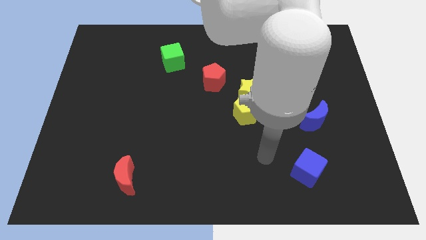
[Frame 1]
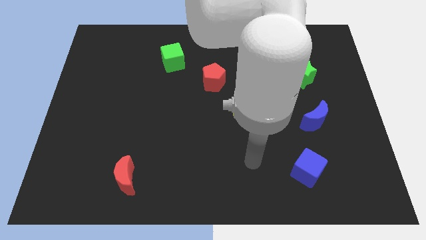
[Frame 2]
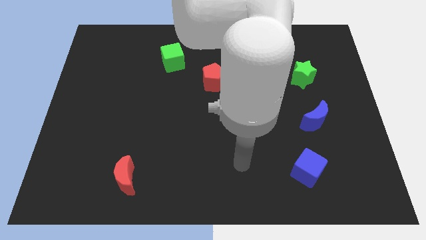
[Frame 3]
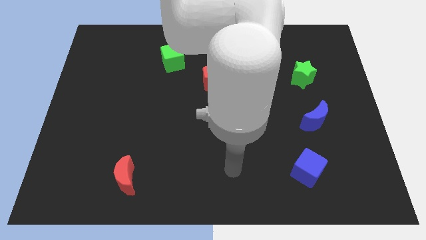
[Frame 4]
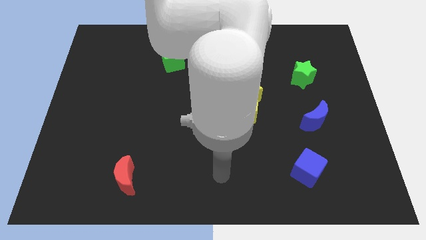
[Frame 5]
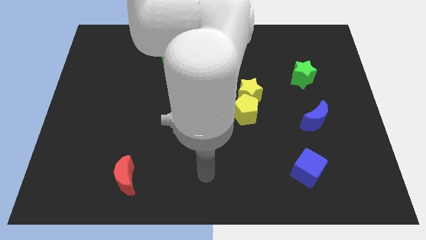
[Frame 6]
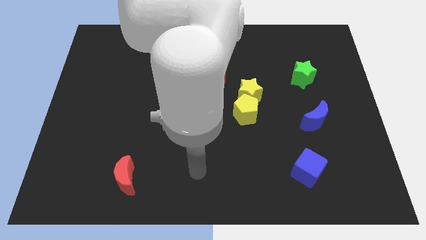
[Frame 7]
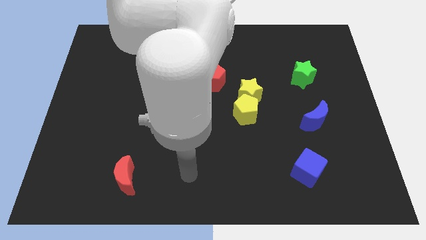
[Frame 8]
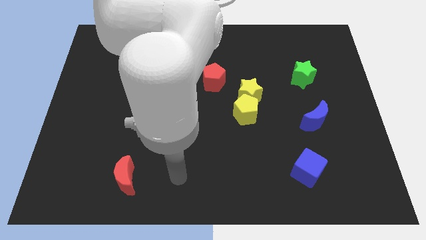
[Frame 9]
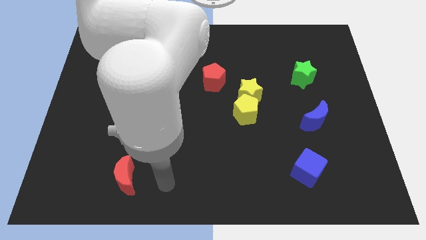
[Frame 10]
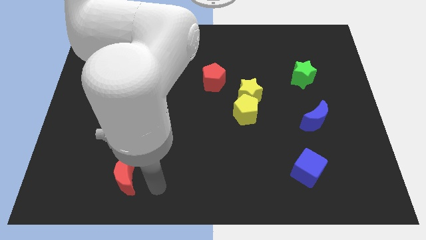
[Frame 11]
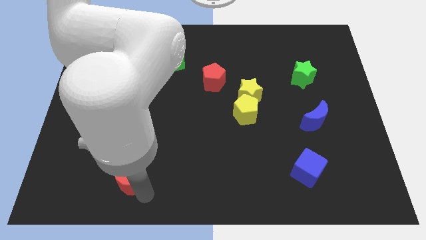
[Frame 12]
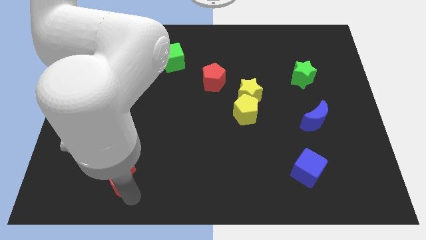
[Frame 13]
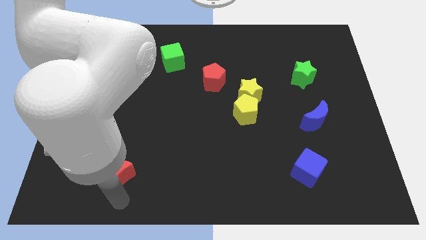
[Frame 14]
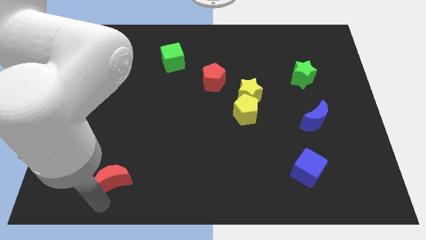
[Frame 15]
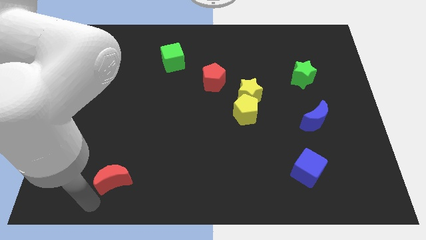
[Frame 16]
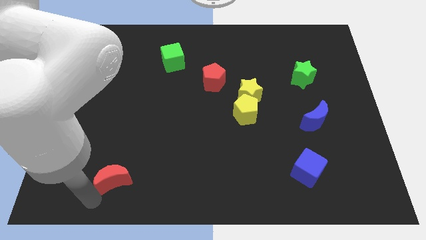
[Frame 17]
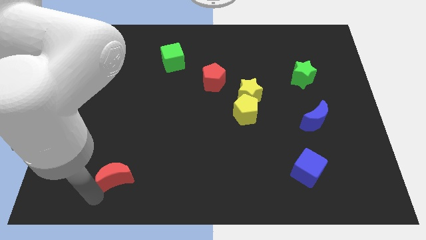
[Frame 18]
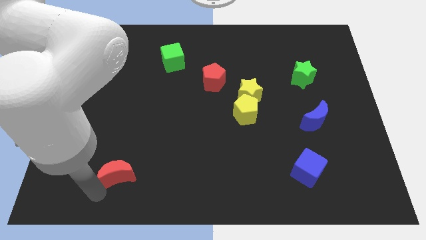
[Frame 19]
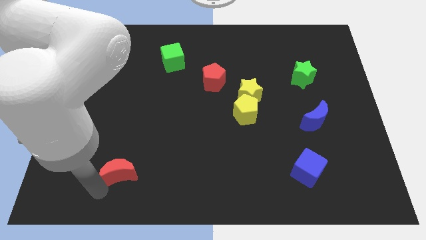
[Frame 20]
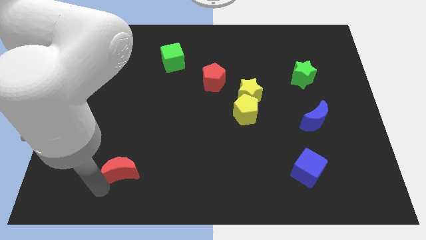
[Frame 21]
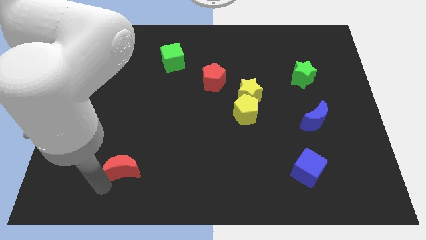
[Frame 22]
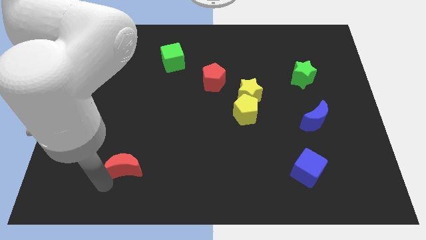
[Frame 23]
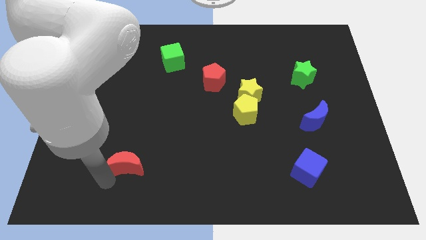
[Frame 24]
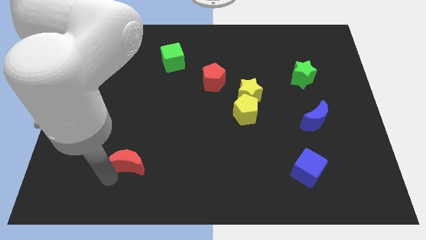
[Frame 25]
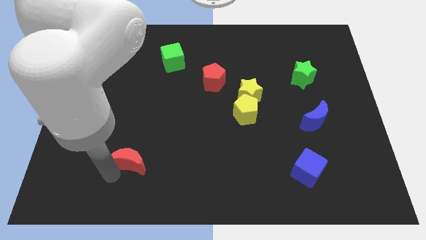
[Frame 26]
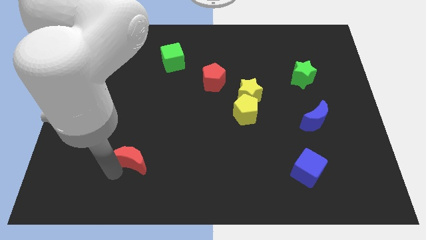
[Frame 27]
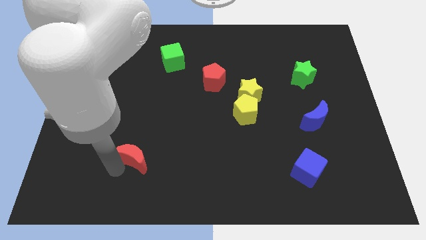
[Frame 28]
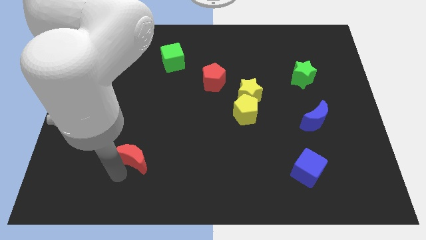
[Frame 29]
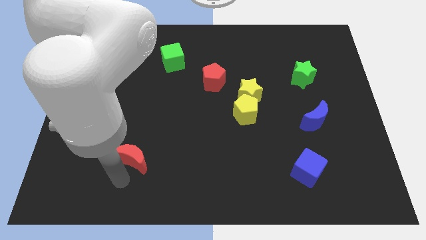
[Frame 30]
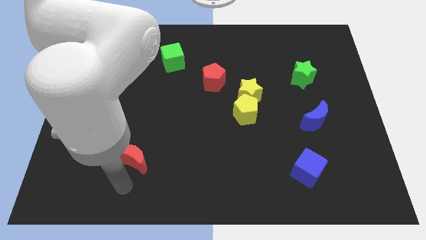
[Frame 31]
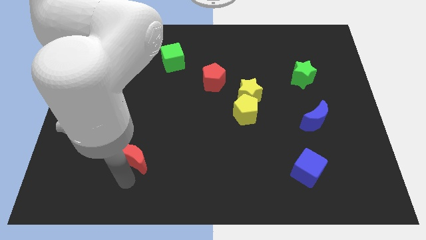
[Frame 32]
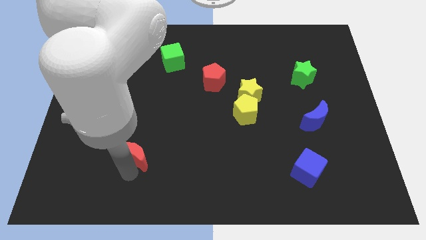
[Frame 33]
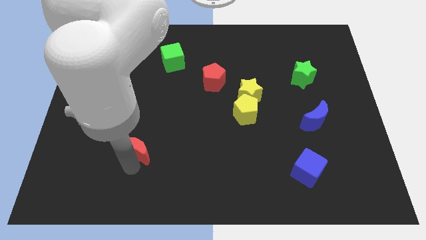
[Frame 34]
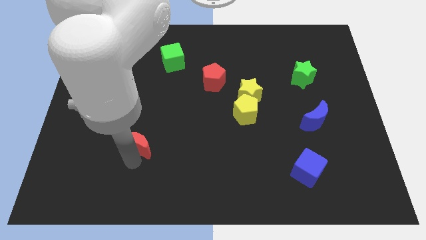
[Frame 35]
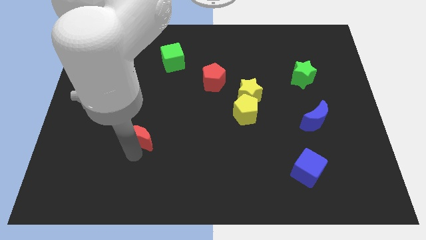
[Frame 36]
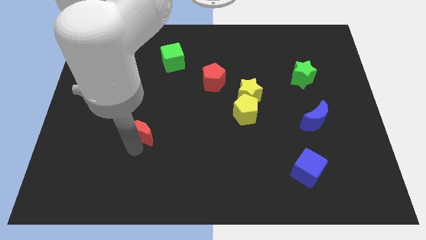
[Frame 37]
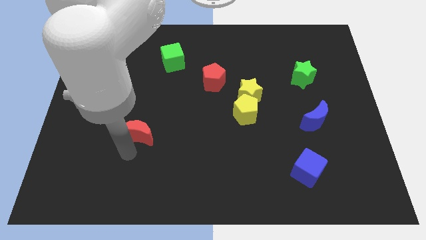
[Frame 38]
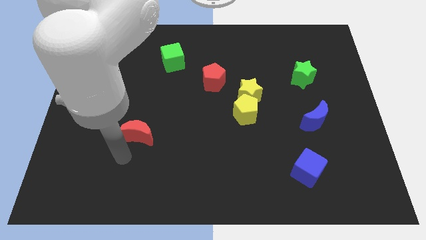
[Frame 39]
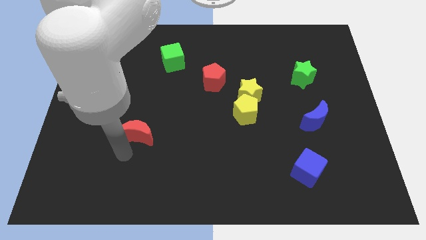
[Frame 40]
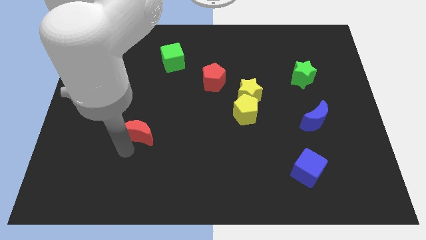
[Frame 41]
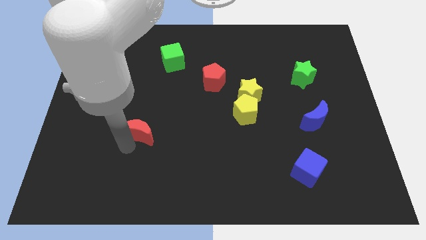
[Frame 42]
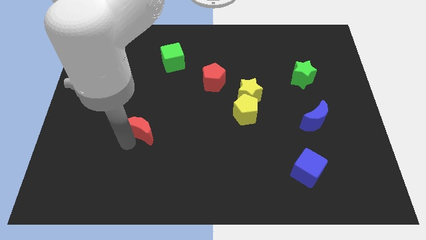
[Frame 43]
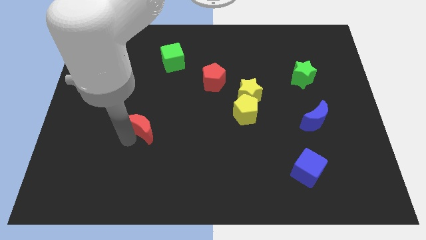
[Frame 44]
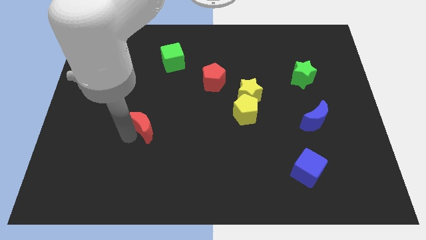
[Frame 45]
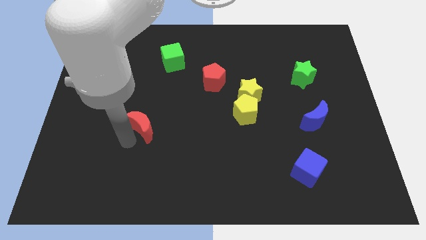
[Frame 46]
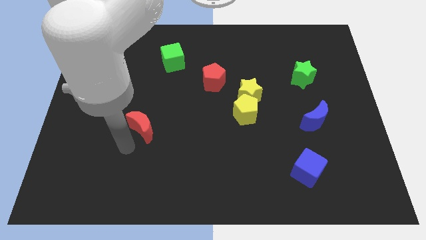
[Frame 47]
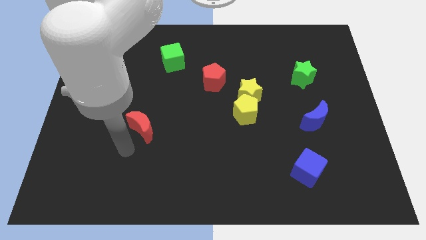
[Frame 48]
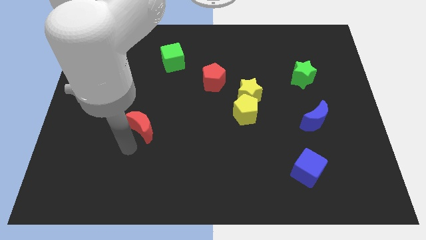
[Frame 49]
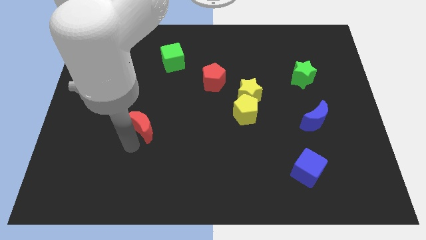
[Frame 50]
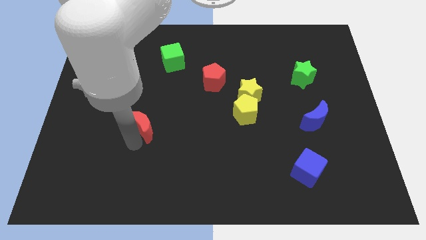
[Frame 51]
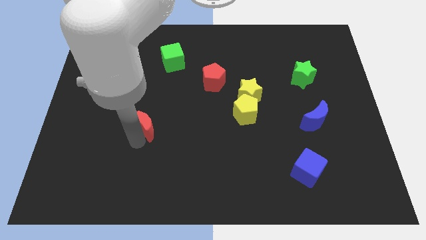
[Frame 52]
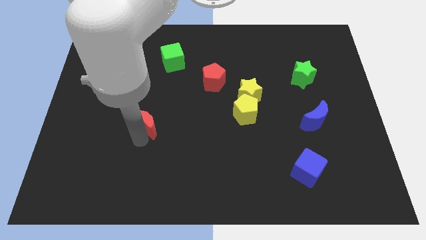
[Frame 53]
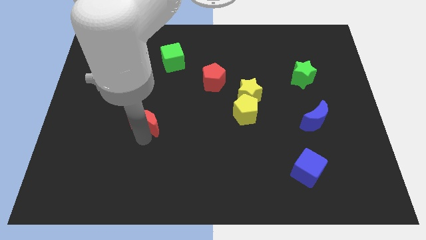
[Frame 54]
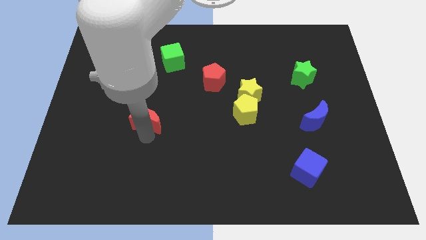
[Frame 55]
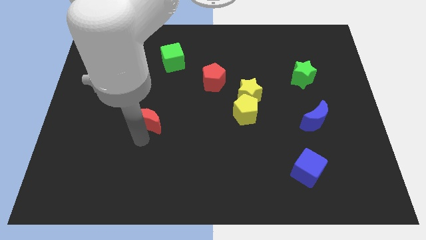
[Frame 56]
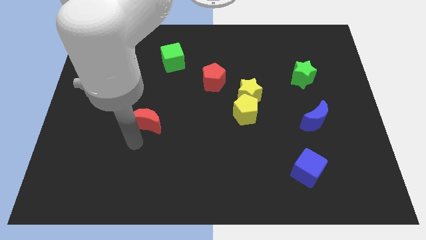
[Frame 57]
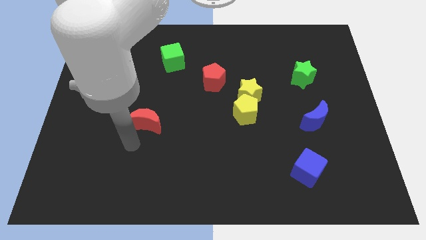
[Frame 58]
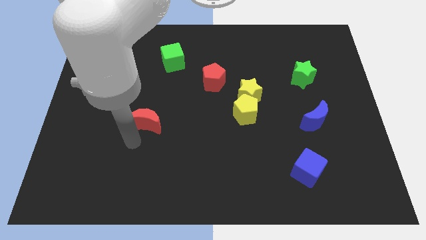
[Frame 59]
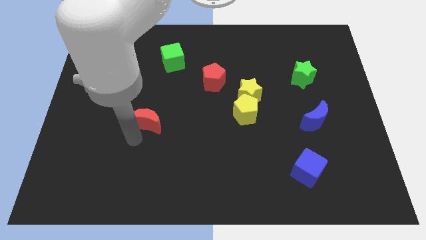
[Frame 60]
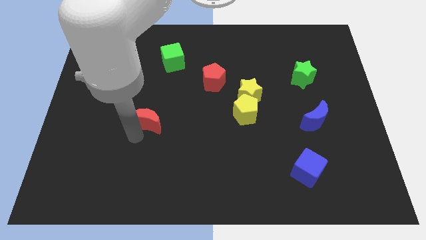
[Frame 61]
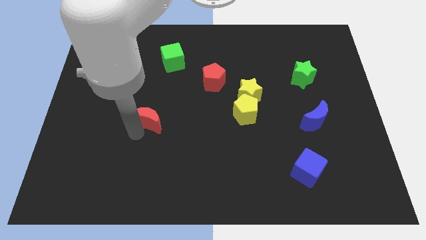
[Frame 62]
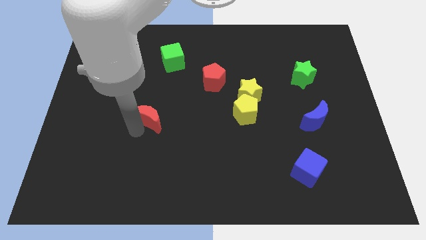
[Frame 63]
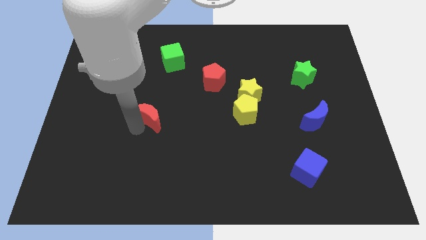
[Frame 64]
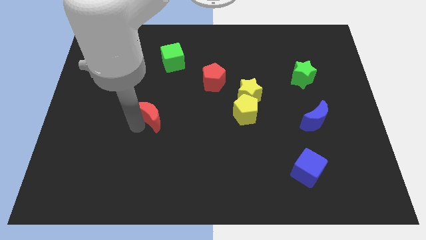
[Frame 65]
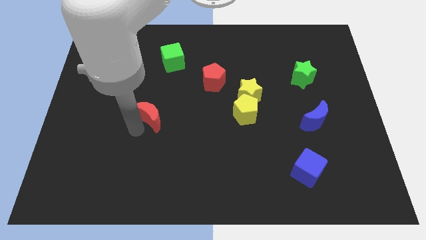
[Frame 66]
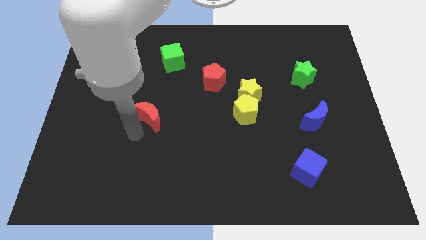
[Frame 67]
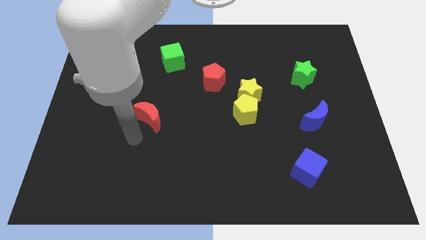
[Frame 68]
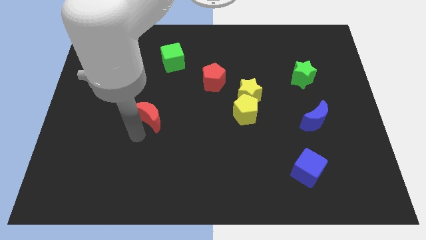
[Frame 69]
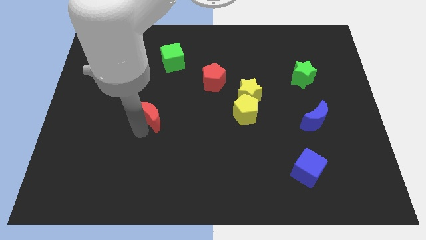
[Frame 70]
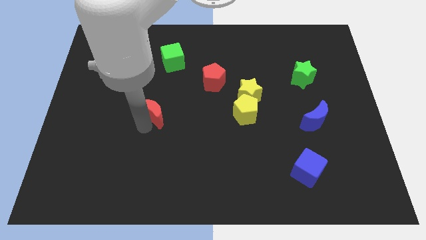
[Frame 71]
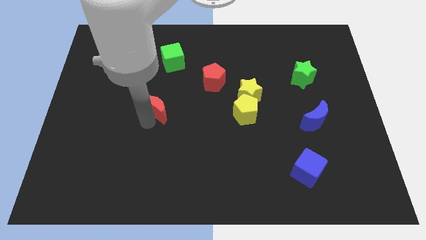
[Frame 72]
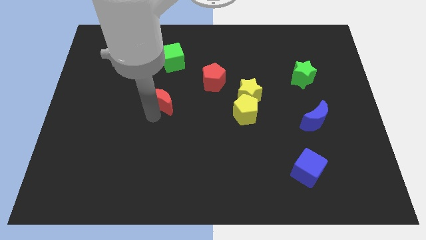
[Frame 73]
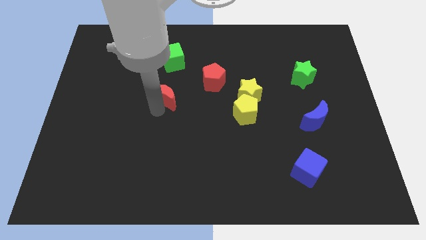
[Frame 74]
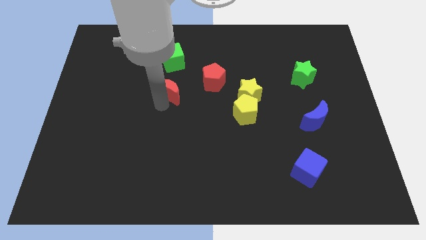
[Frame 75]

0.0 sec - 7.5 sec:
push the red moon just left of the red pentagon
